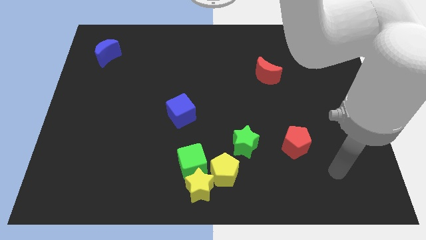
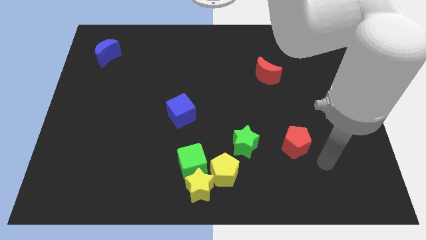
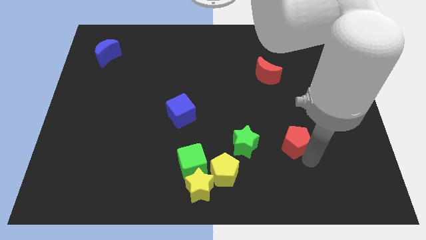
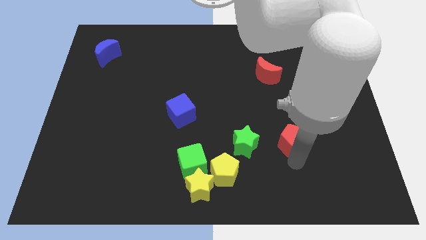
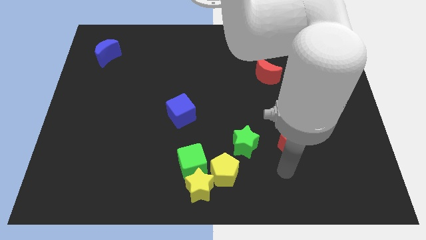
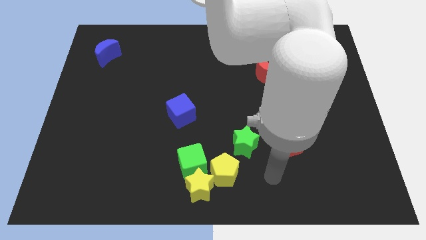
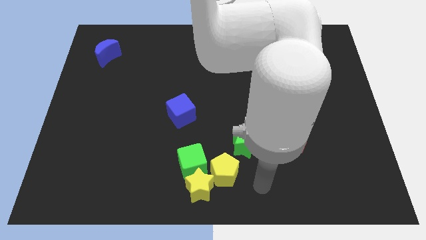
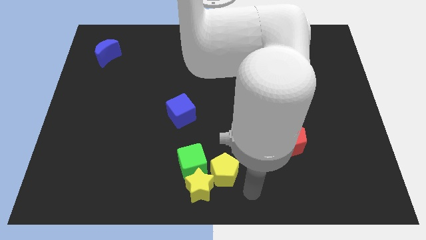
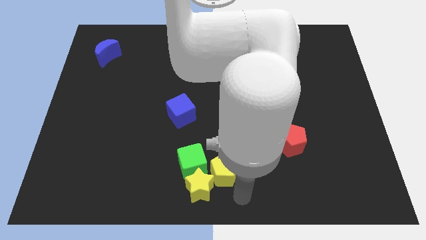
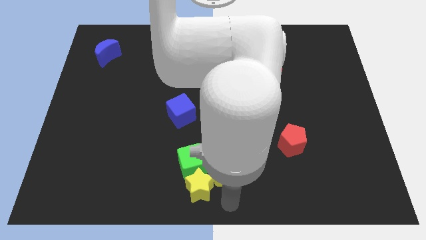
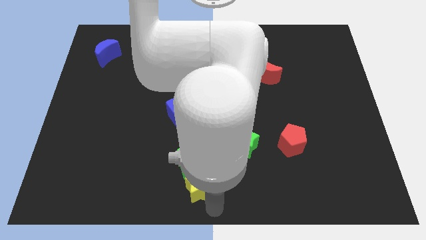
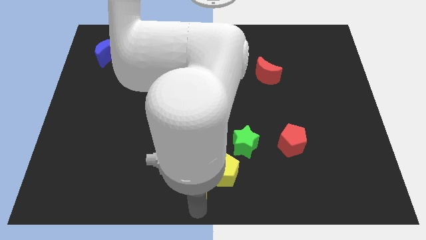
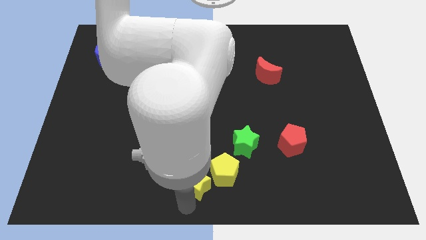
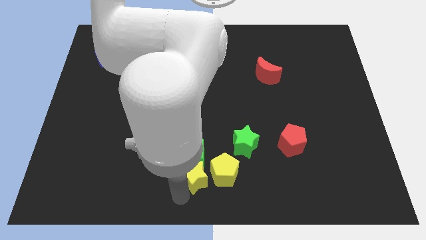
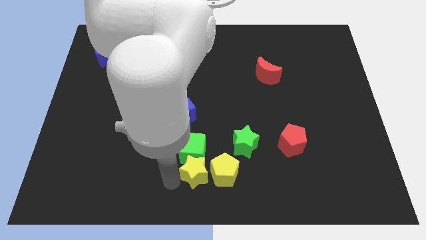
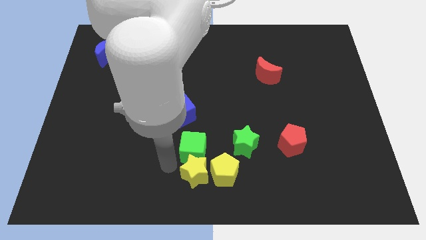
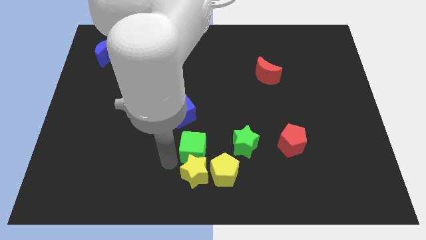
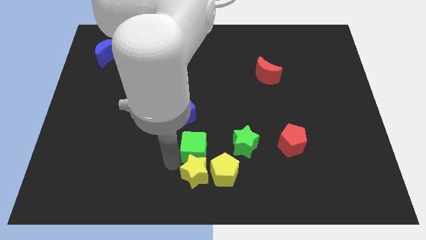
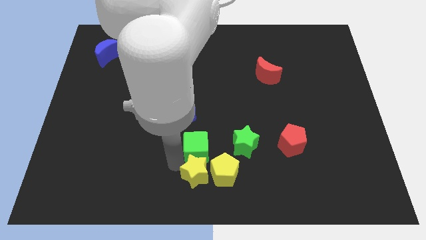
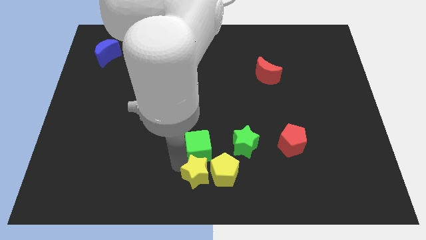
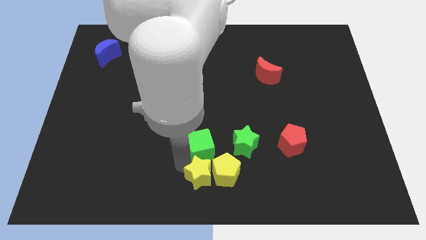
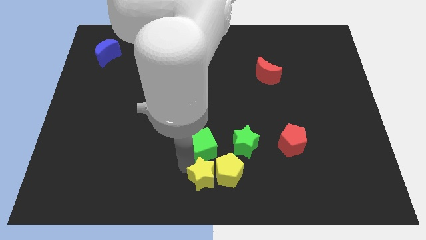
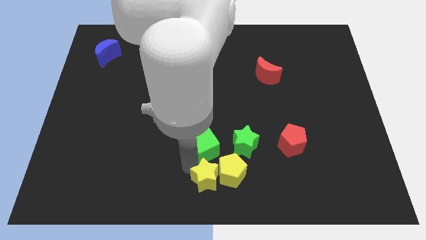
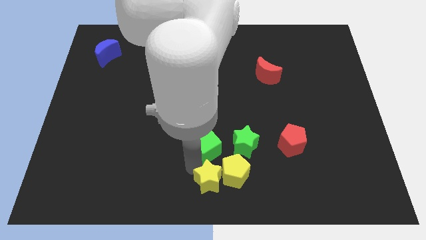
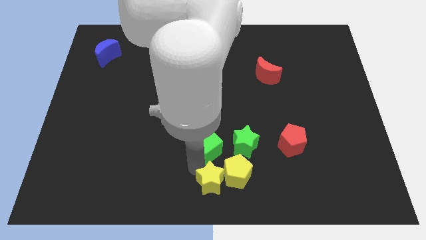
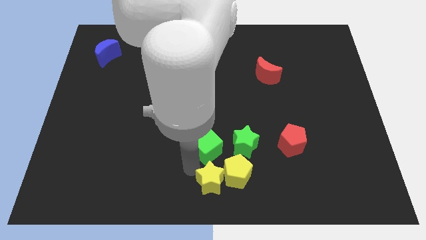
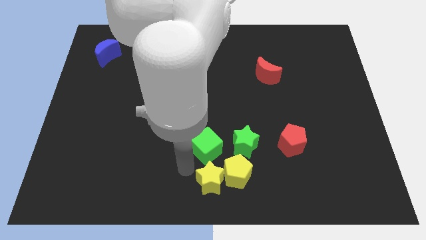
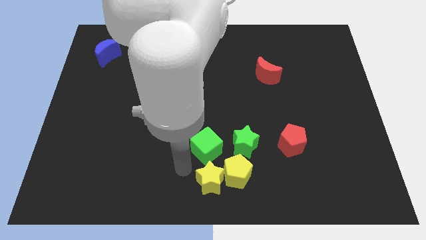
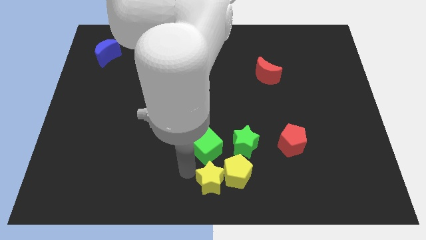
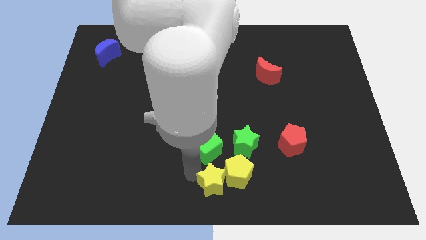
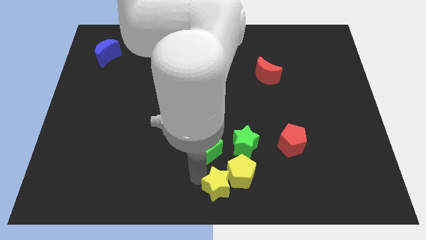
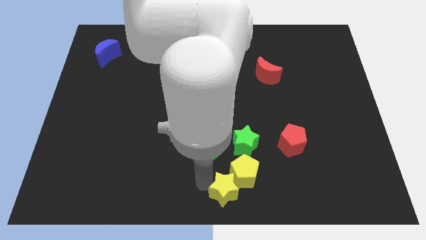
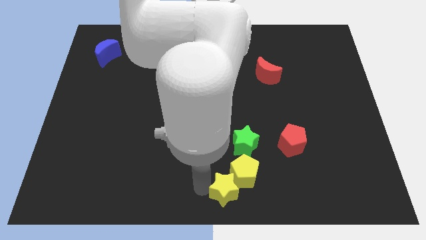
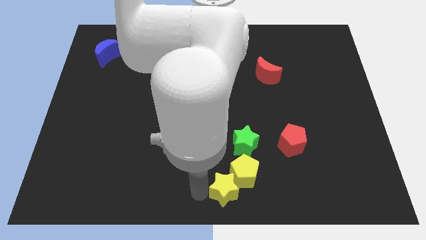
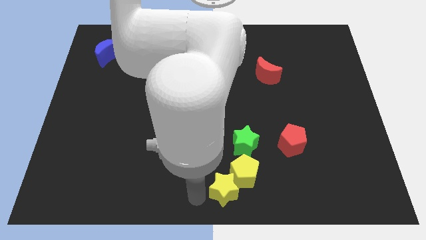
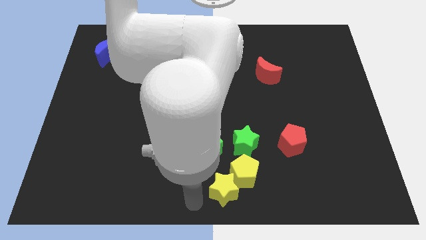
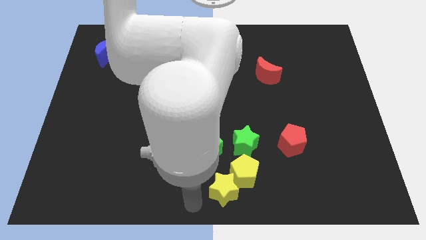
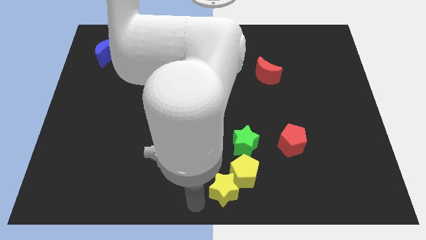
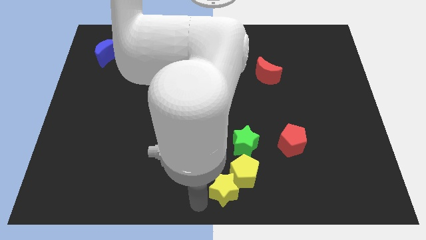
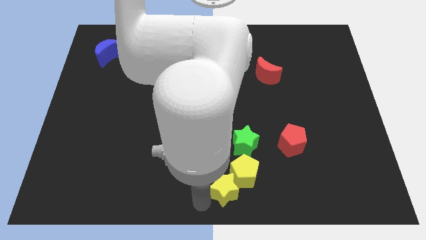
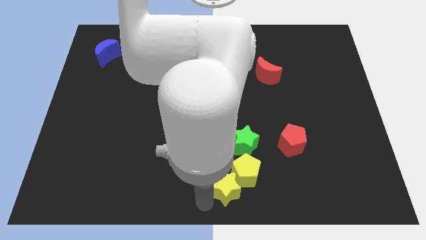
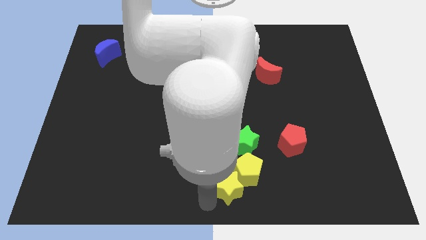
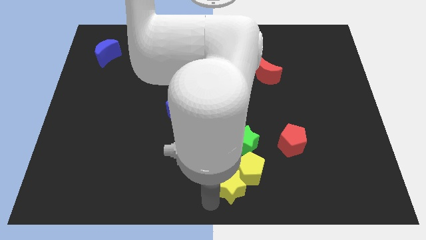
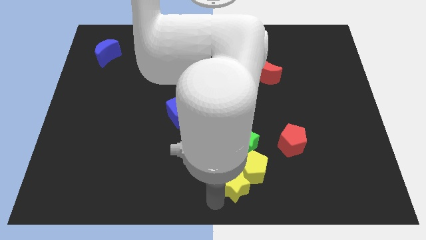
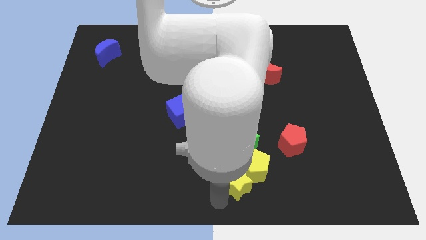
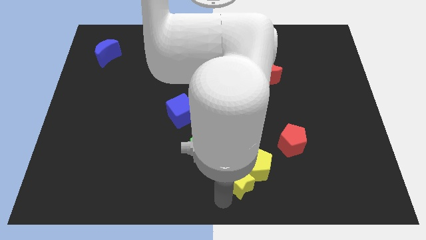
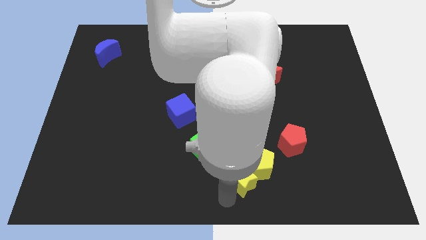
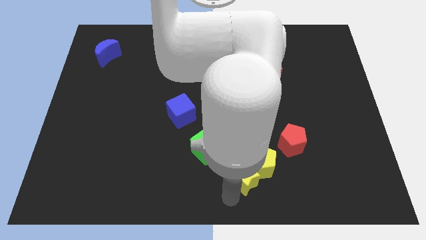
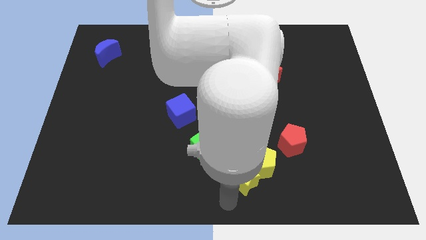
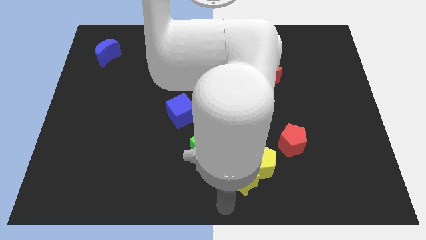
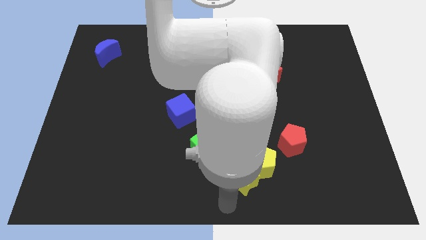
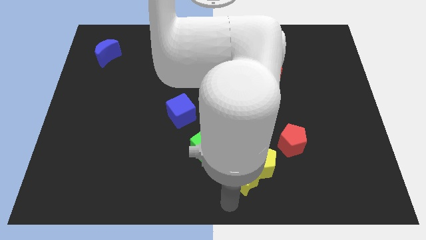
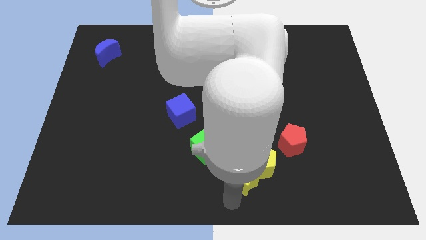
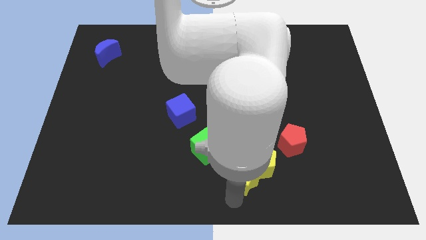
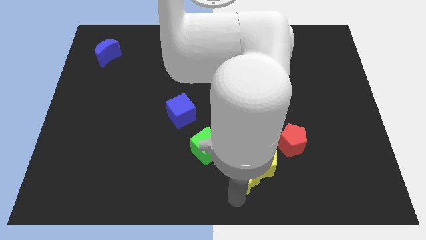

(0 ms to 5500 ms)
slightly move the yellow star upwards and right

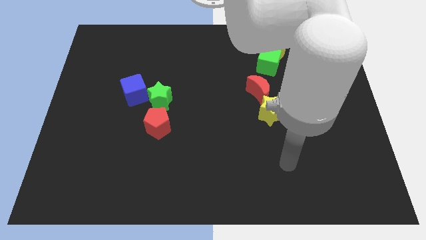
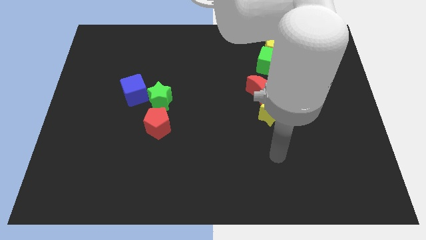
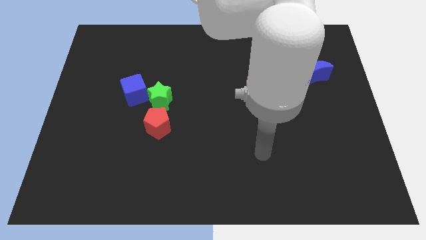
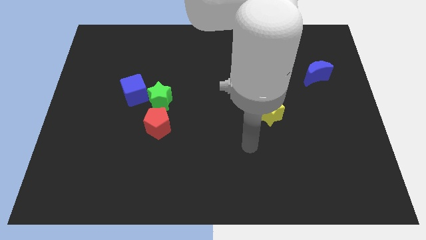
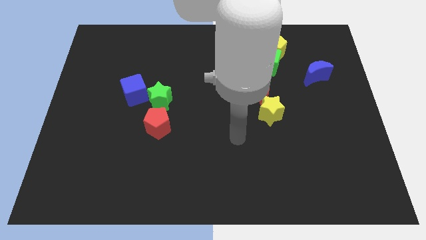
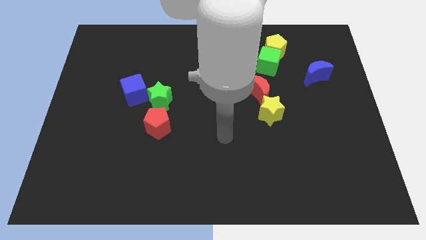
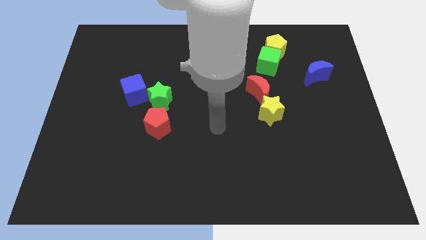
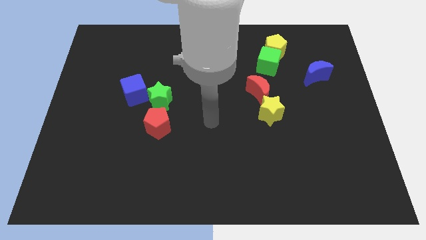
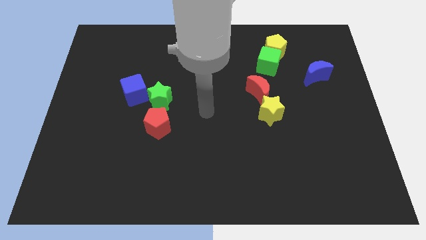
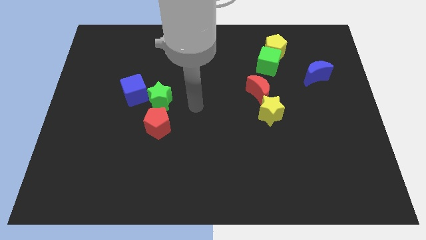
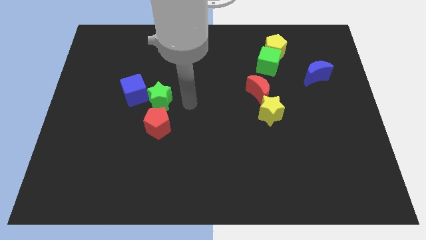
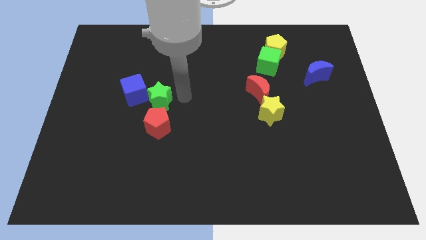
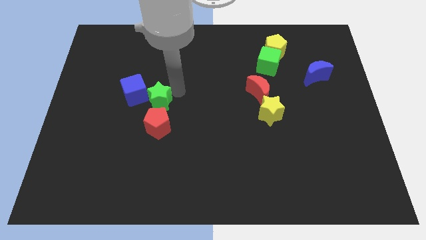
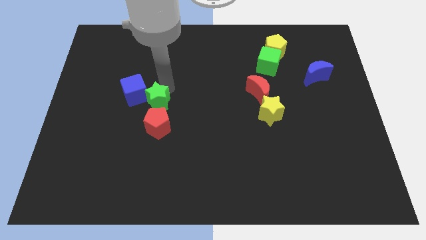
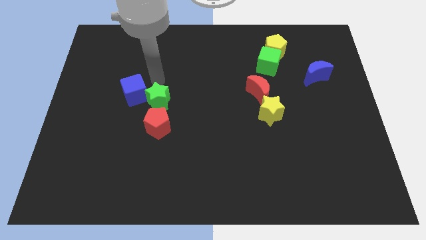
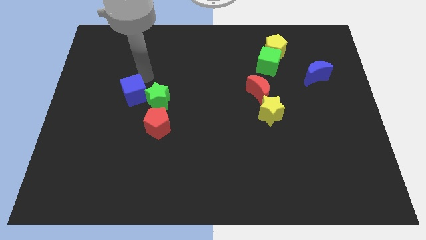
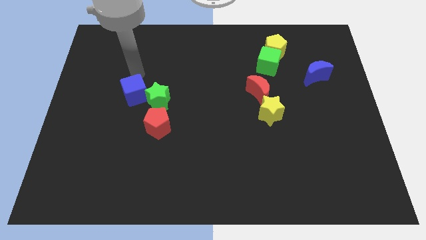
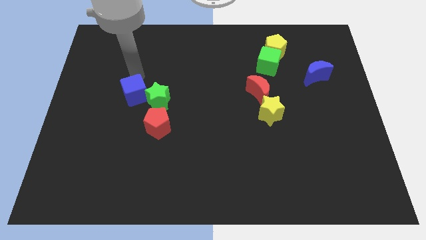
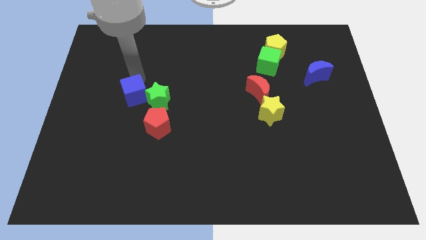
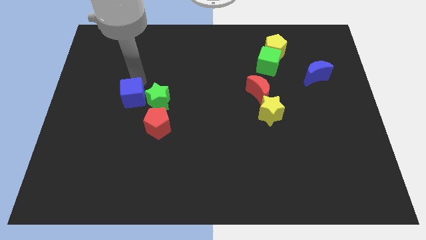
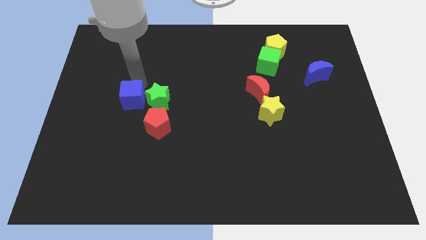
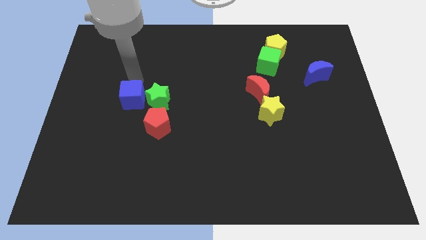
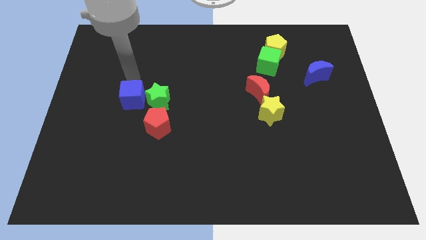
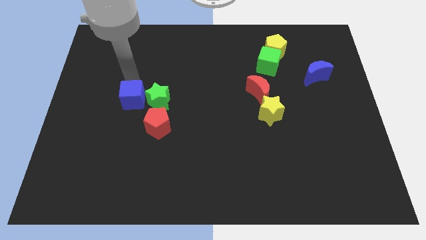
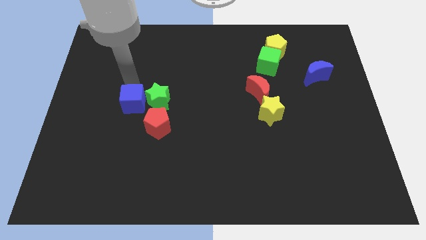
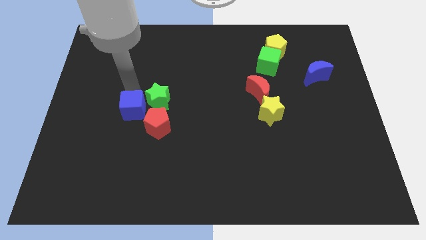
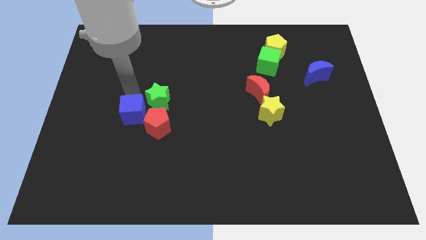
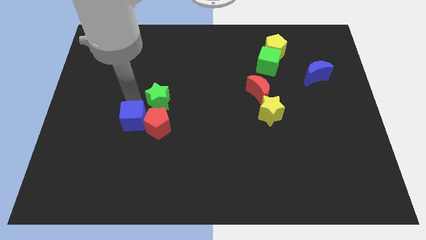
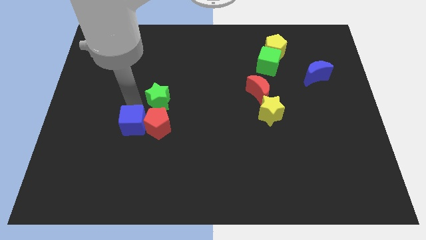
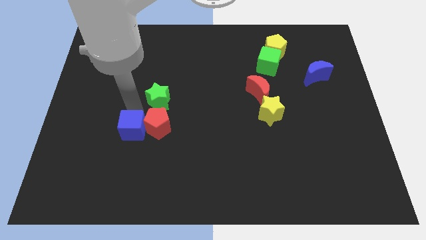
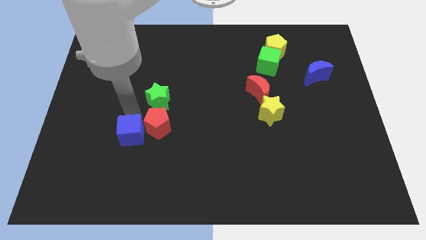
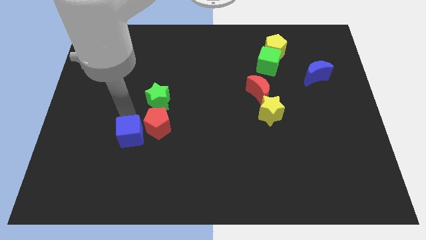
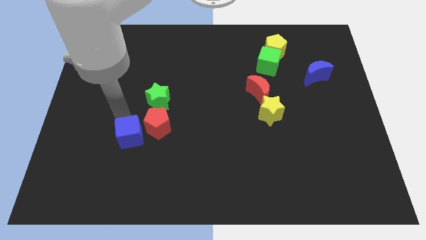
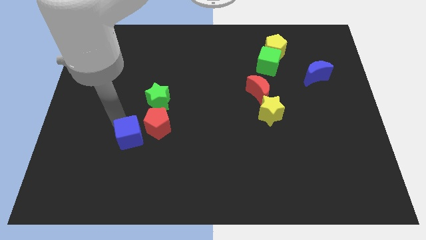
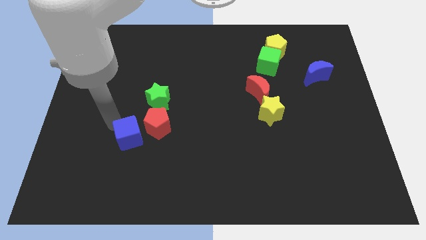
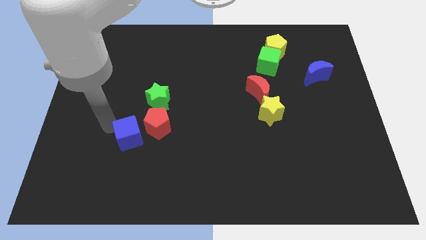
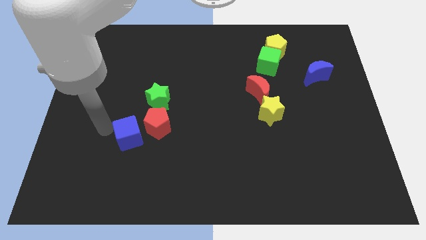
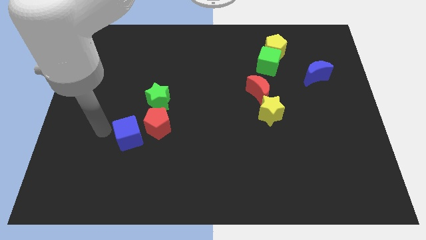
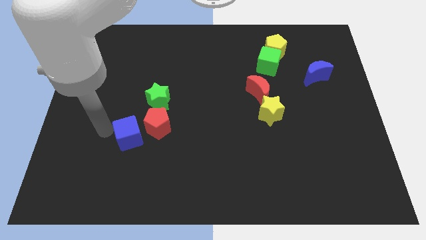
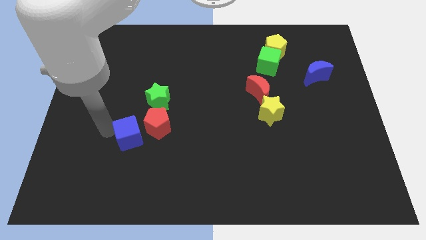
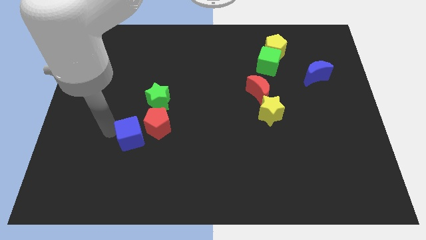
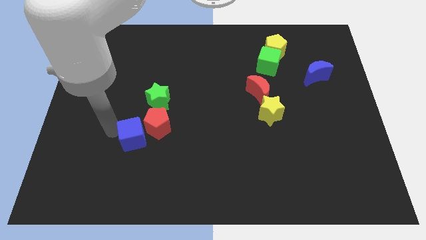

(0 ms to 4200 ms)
push the blue cube a bit downwards and right diagonally
